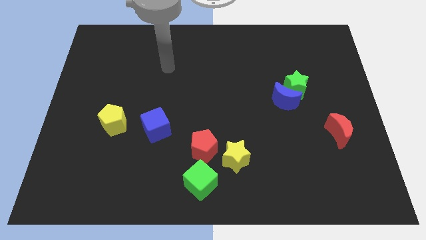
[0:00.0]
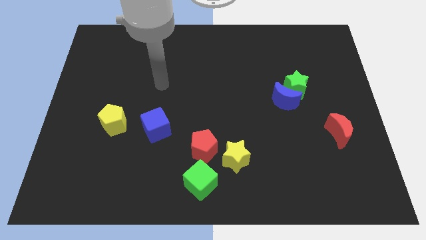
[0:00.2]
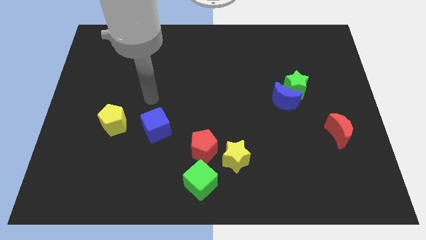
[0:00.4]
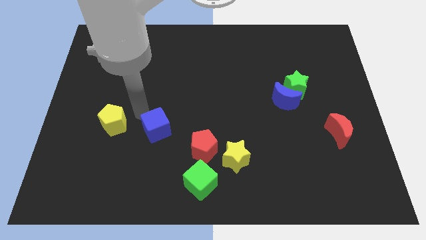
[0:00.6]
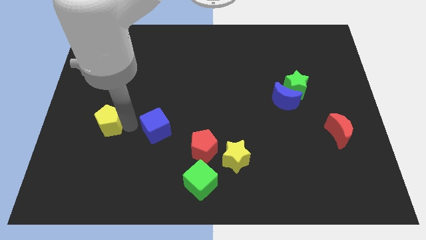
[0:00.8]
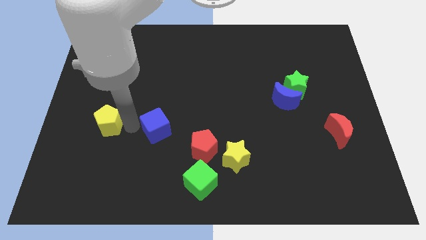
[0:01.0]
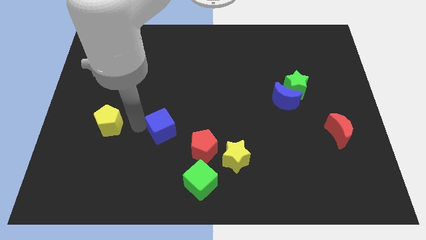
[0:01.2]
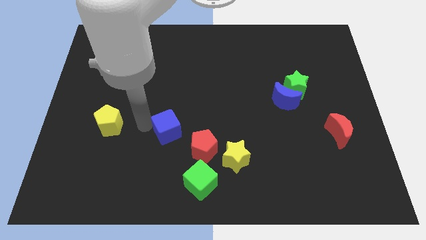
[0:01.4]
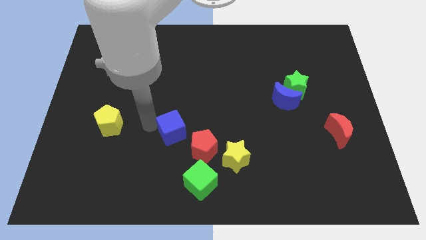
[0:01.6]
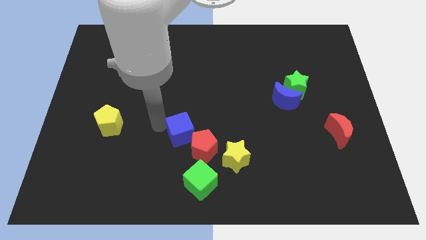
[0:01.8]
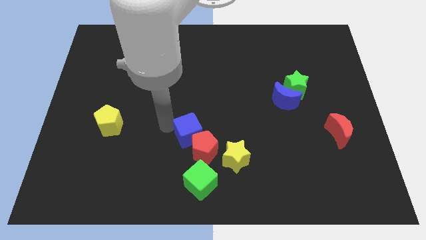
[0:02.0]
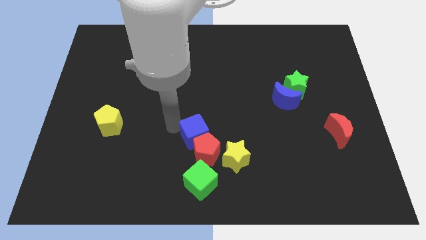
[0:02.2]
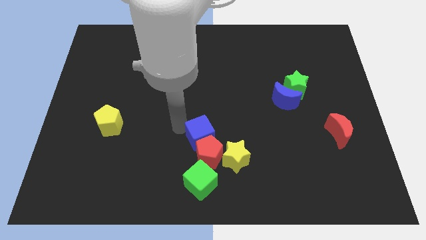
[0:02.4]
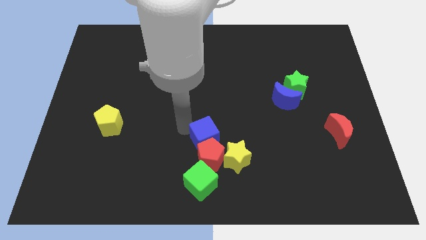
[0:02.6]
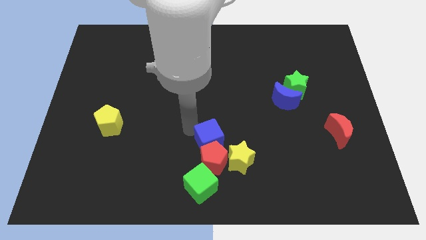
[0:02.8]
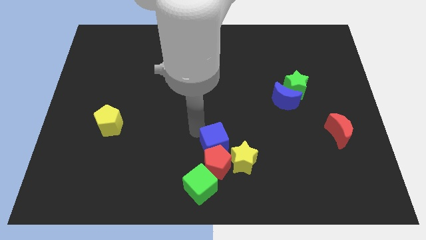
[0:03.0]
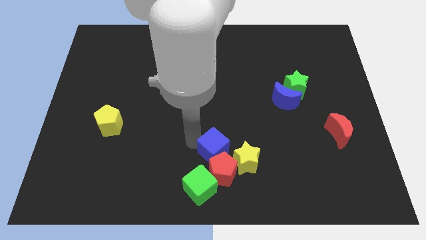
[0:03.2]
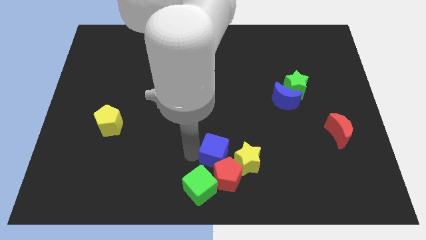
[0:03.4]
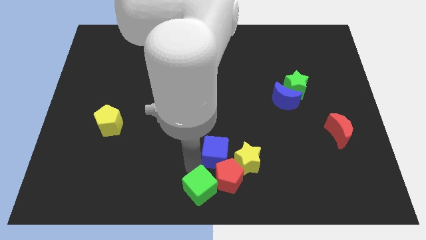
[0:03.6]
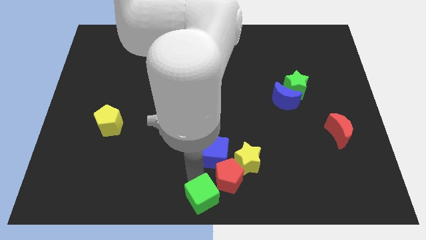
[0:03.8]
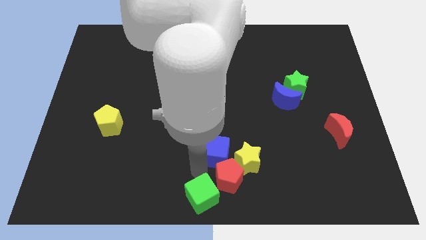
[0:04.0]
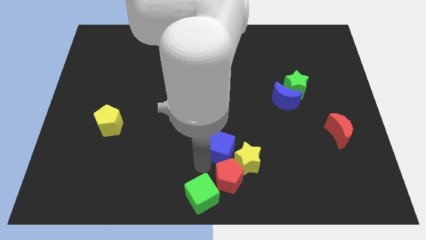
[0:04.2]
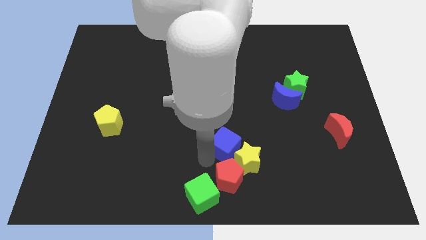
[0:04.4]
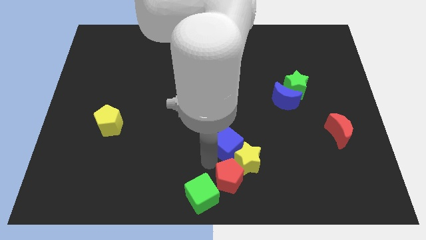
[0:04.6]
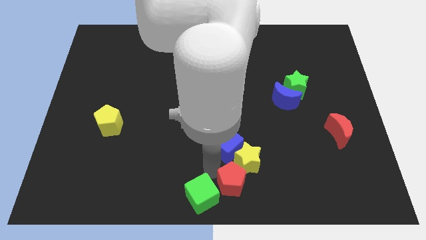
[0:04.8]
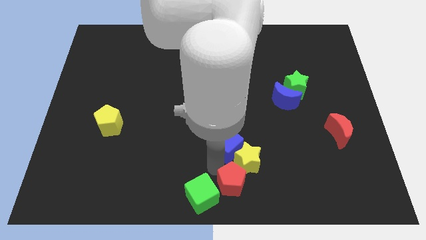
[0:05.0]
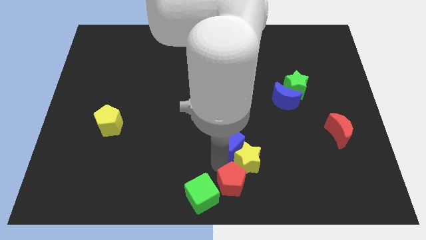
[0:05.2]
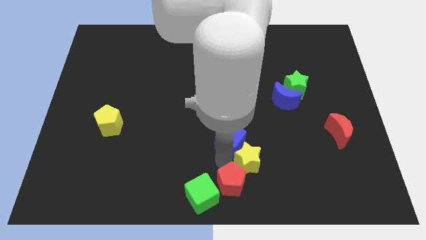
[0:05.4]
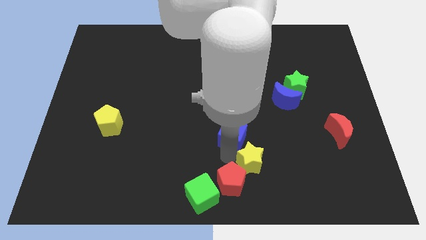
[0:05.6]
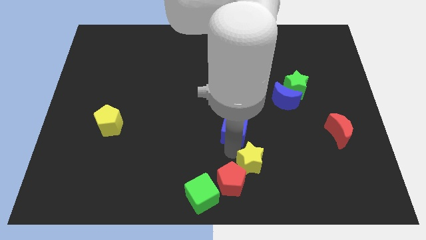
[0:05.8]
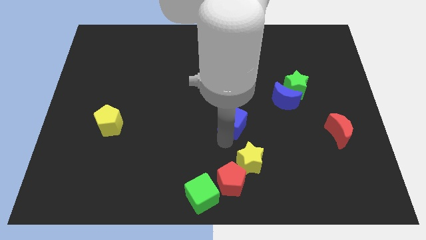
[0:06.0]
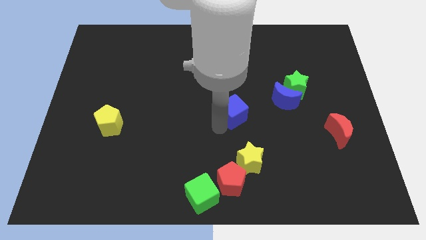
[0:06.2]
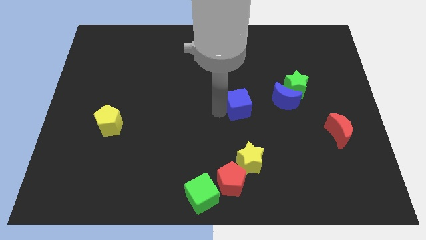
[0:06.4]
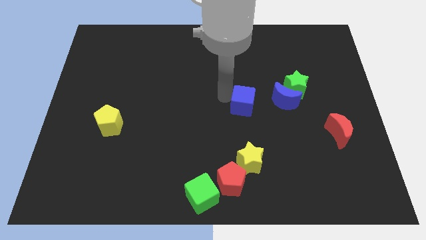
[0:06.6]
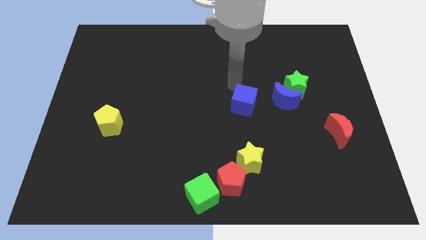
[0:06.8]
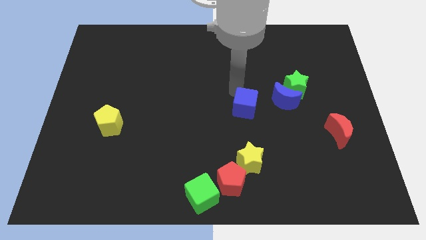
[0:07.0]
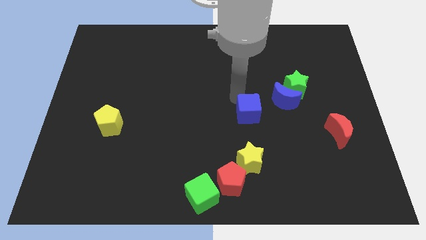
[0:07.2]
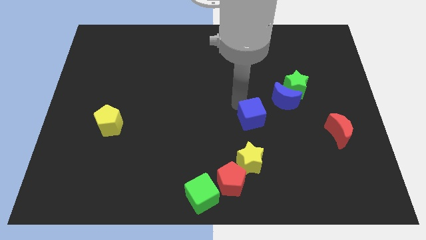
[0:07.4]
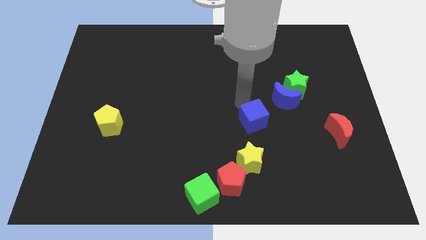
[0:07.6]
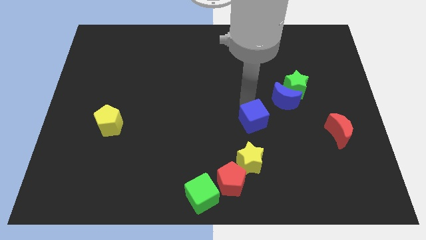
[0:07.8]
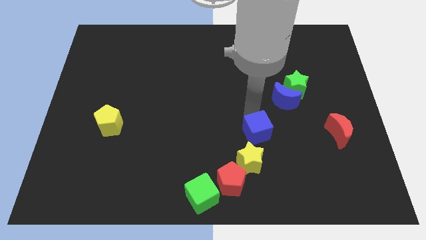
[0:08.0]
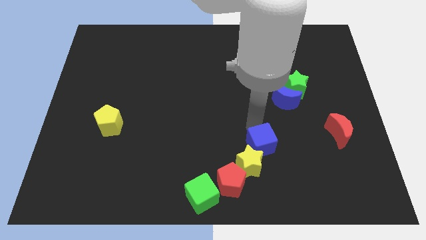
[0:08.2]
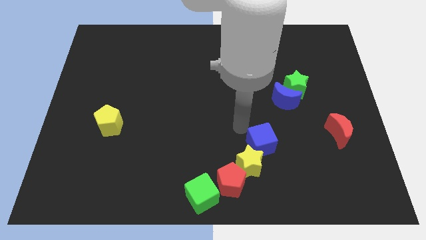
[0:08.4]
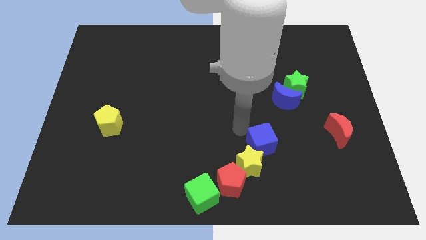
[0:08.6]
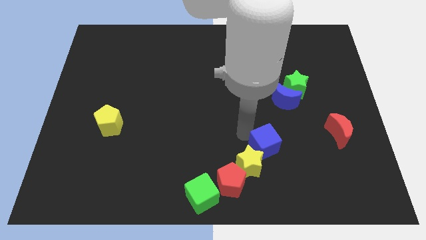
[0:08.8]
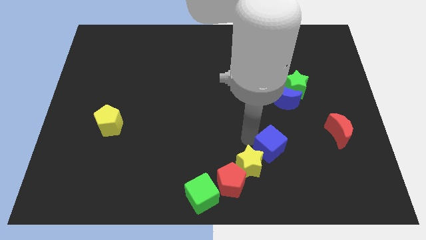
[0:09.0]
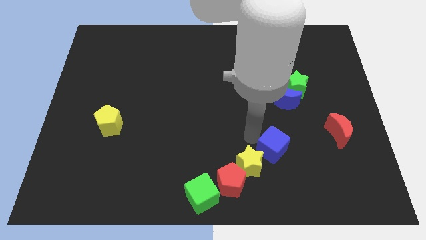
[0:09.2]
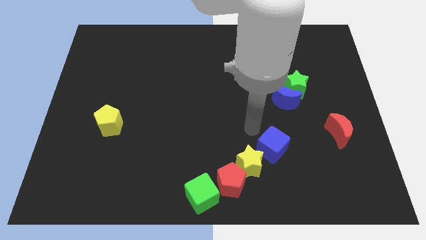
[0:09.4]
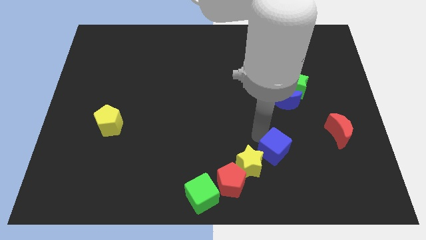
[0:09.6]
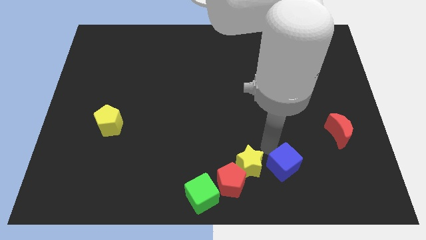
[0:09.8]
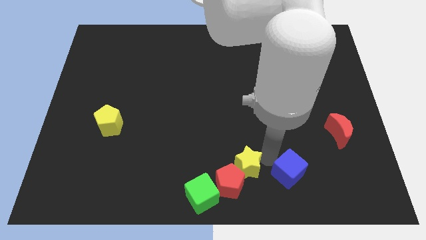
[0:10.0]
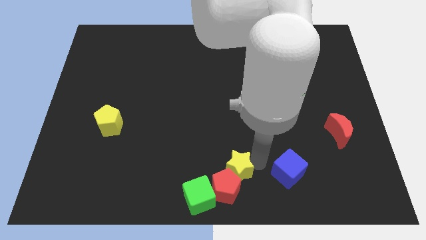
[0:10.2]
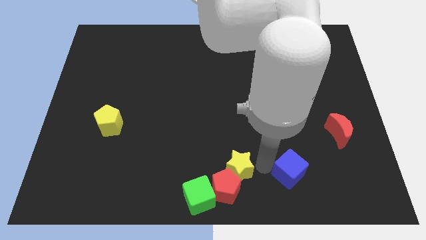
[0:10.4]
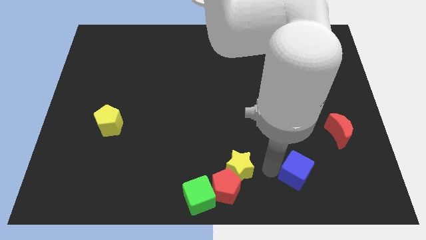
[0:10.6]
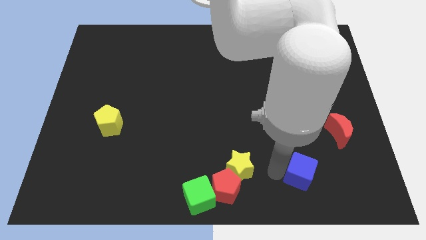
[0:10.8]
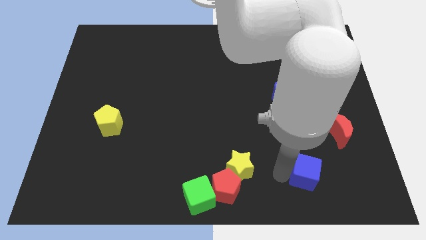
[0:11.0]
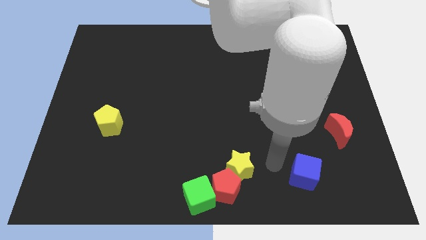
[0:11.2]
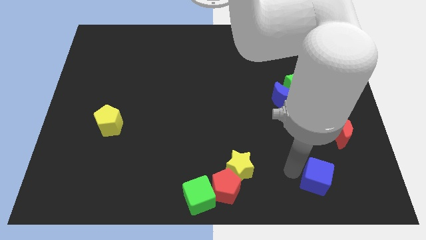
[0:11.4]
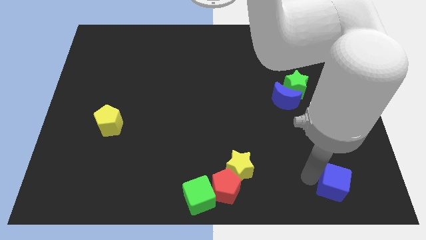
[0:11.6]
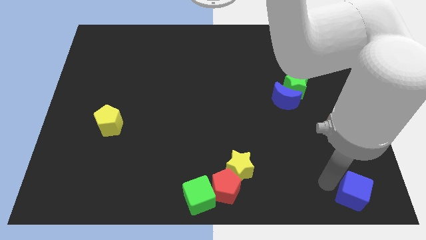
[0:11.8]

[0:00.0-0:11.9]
push the blue cube to the lower right corner

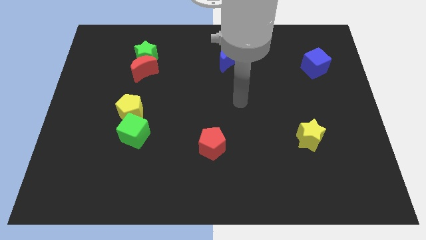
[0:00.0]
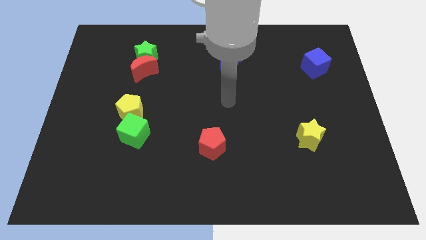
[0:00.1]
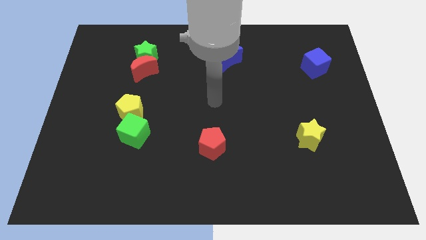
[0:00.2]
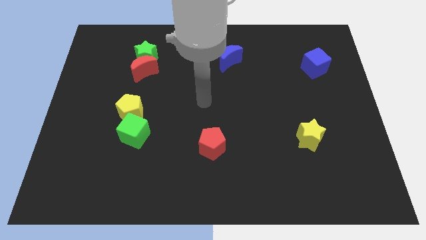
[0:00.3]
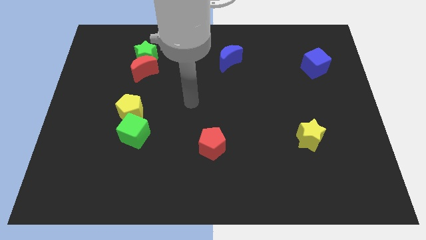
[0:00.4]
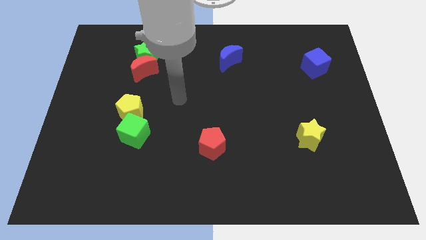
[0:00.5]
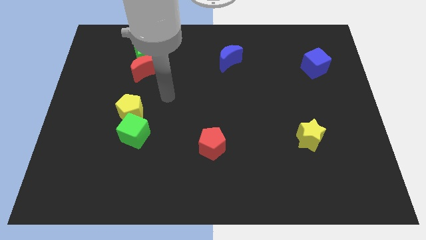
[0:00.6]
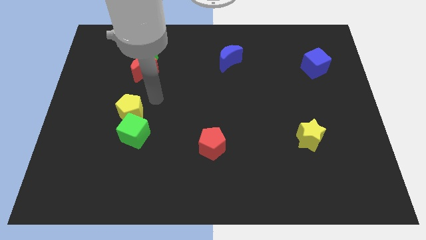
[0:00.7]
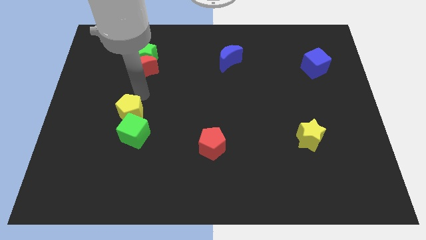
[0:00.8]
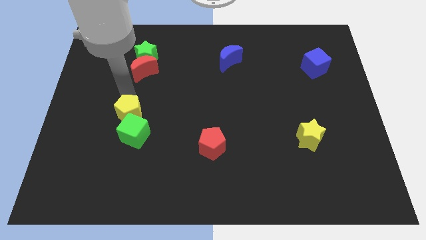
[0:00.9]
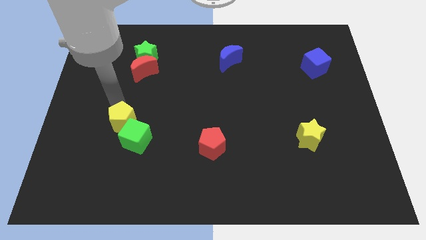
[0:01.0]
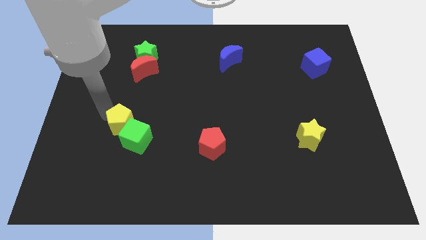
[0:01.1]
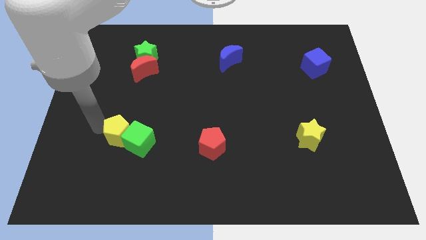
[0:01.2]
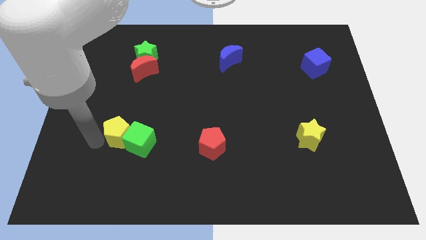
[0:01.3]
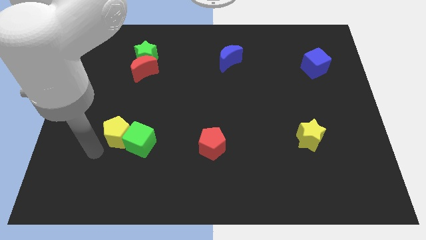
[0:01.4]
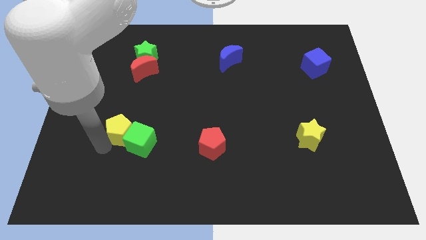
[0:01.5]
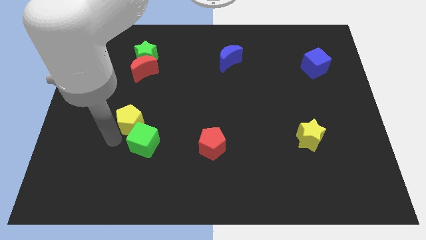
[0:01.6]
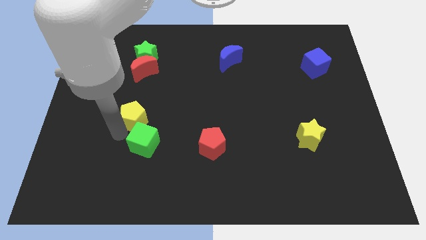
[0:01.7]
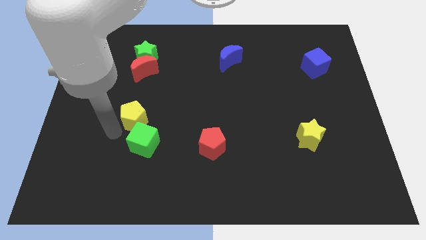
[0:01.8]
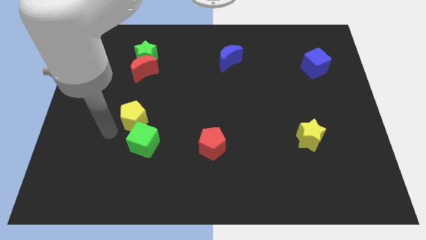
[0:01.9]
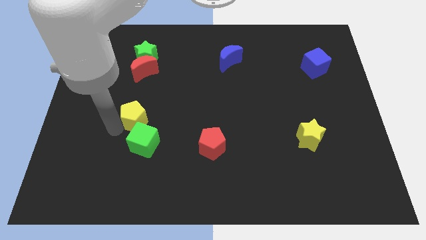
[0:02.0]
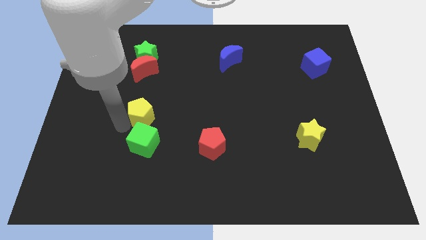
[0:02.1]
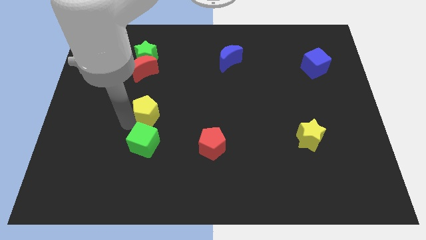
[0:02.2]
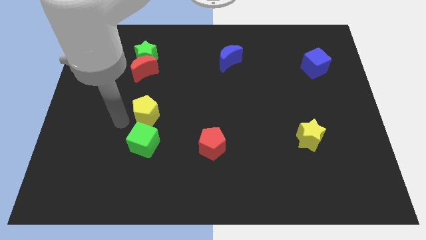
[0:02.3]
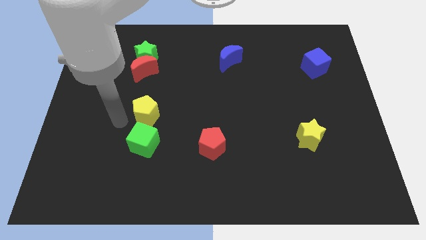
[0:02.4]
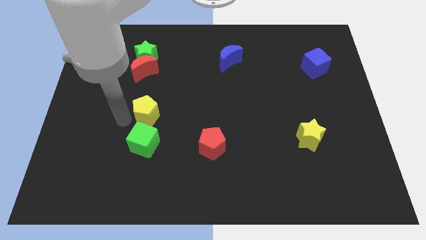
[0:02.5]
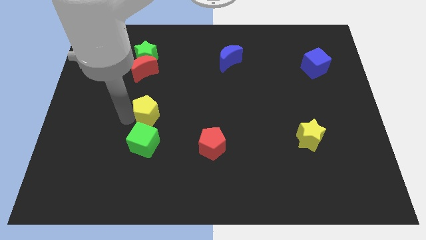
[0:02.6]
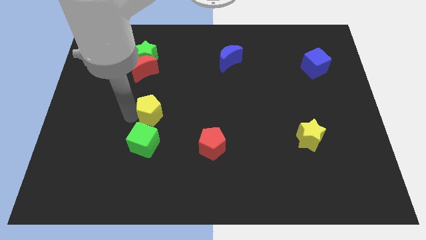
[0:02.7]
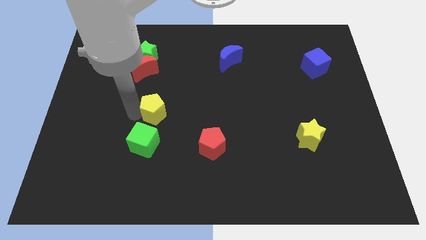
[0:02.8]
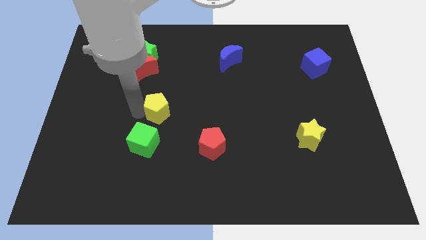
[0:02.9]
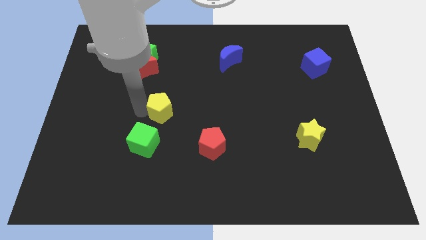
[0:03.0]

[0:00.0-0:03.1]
put the yellow pentagon to the center
